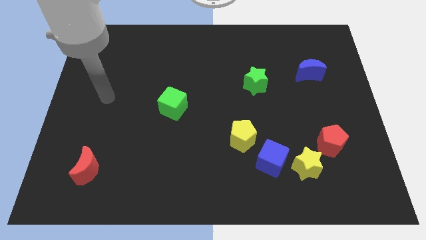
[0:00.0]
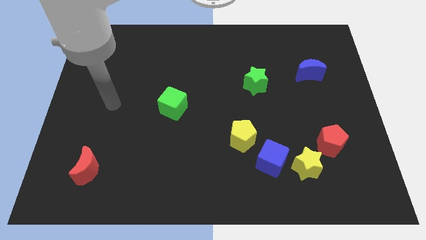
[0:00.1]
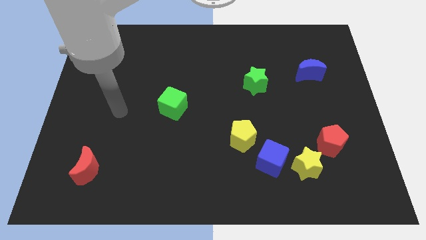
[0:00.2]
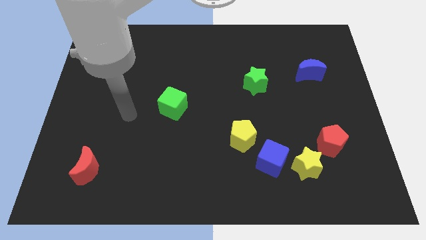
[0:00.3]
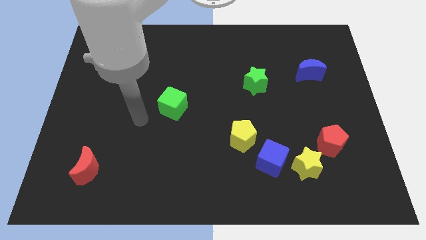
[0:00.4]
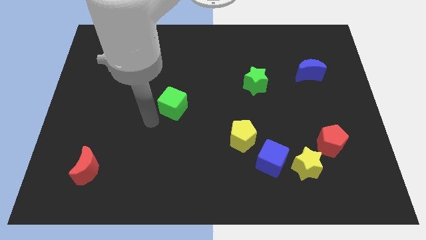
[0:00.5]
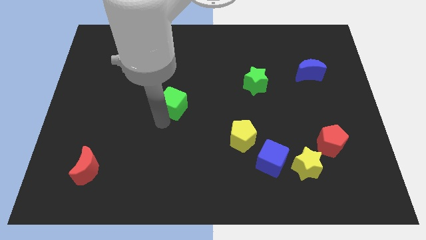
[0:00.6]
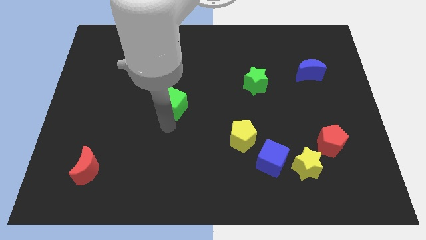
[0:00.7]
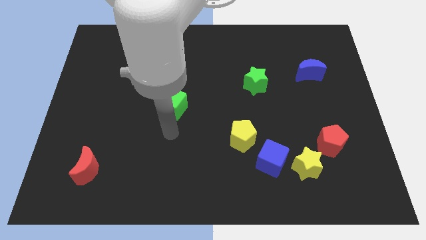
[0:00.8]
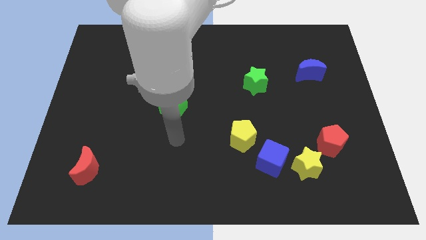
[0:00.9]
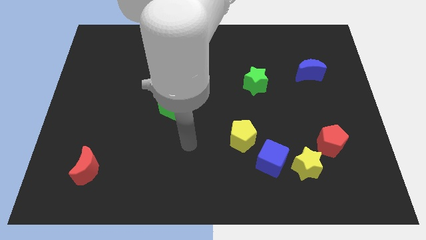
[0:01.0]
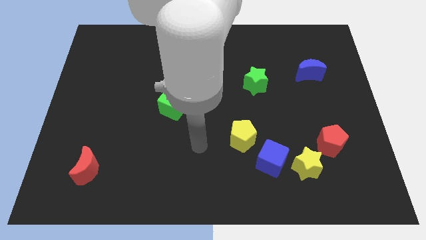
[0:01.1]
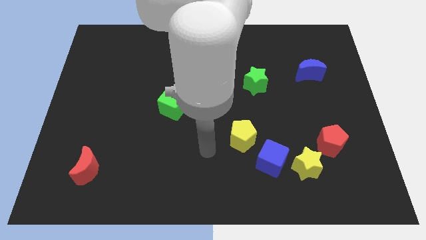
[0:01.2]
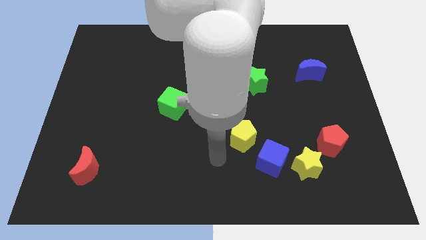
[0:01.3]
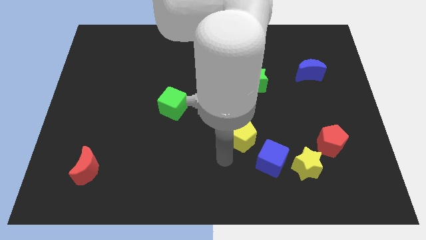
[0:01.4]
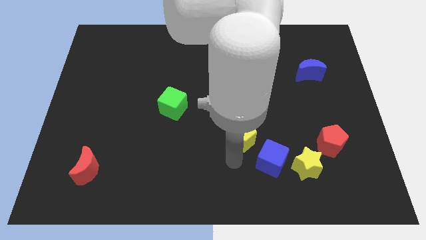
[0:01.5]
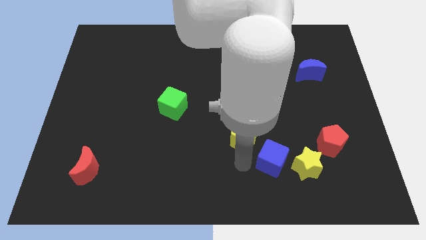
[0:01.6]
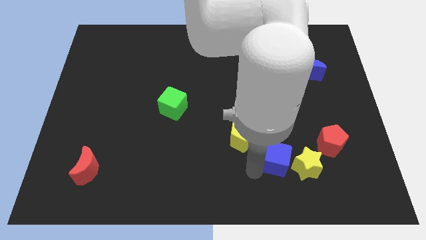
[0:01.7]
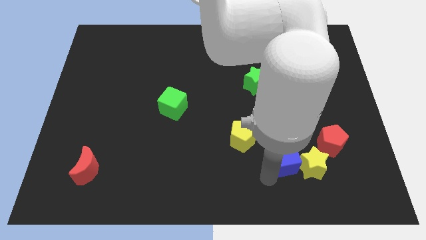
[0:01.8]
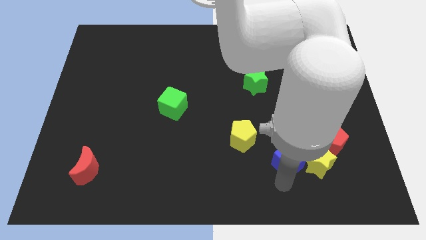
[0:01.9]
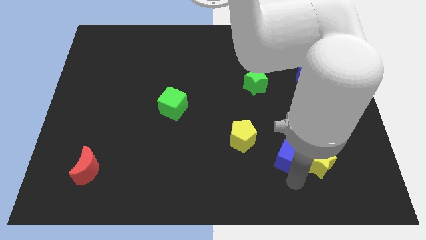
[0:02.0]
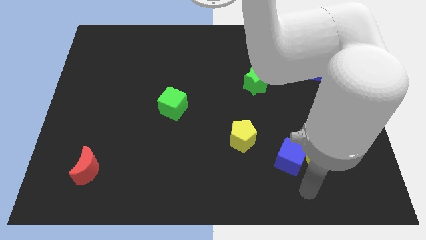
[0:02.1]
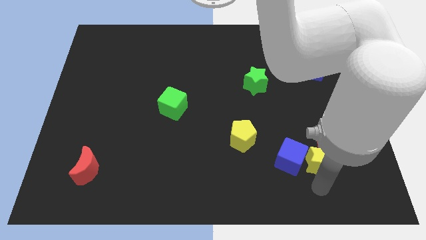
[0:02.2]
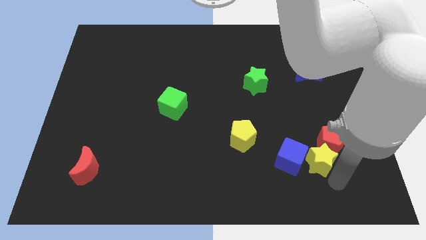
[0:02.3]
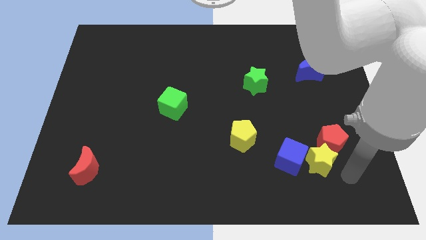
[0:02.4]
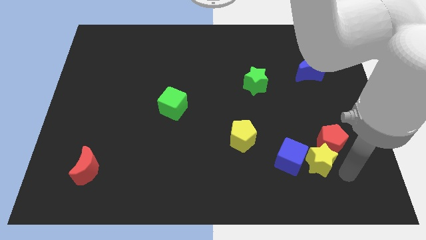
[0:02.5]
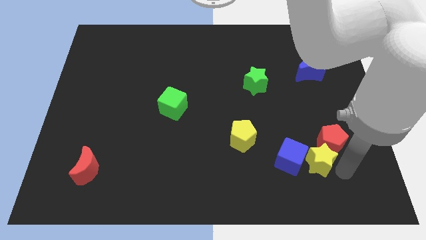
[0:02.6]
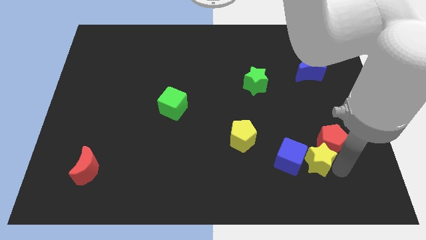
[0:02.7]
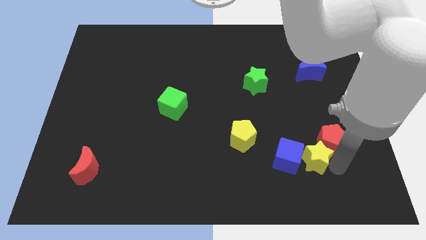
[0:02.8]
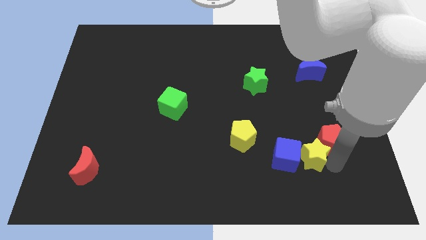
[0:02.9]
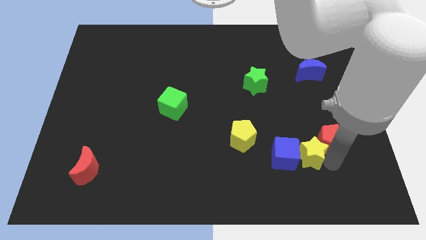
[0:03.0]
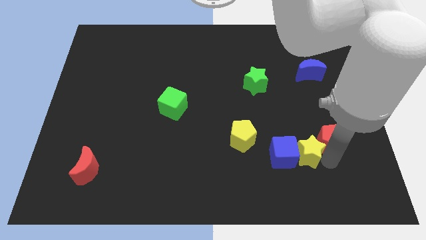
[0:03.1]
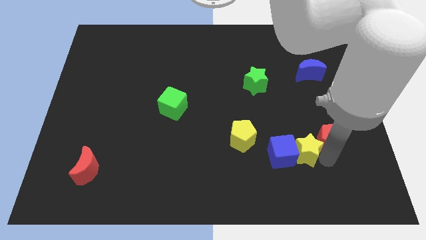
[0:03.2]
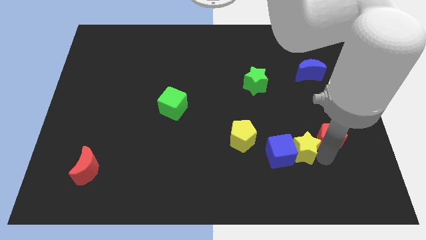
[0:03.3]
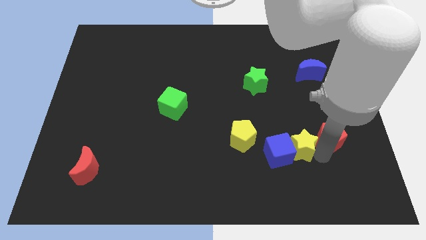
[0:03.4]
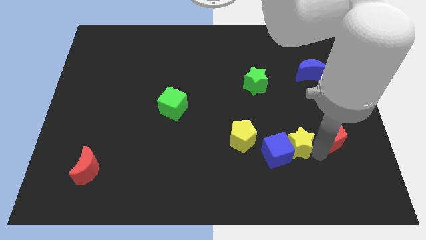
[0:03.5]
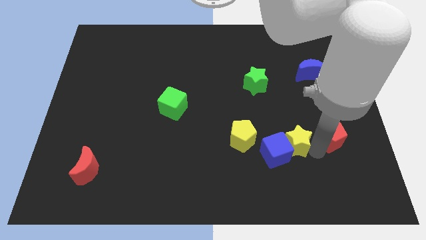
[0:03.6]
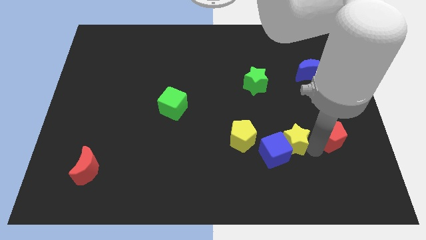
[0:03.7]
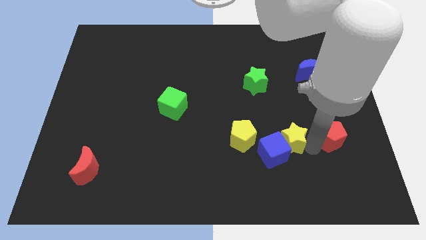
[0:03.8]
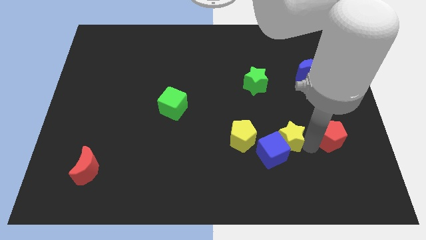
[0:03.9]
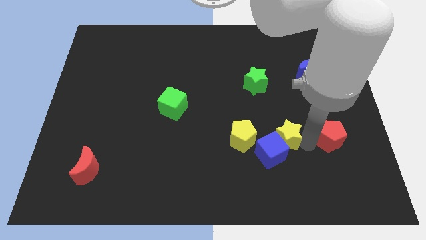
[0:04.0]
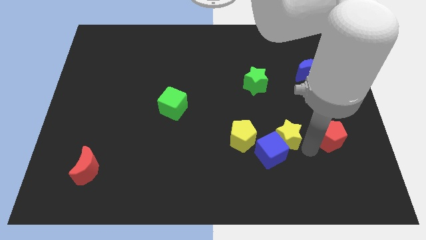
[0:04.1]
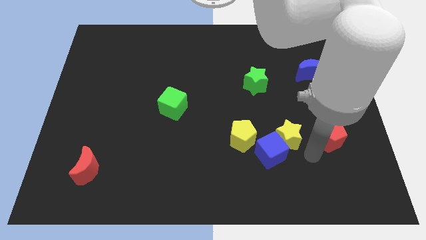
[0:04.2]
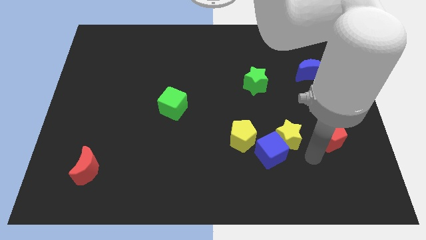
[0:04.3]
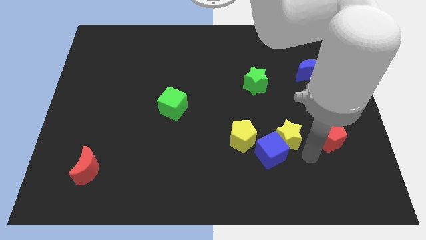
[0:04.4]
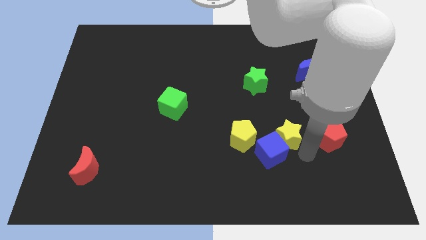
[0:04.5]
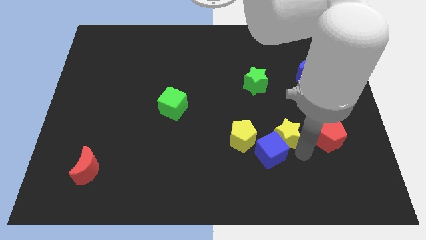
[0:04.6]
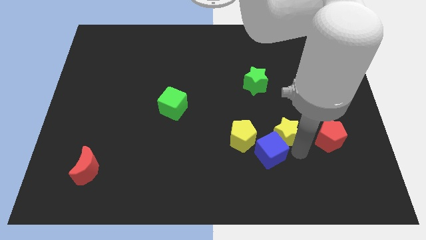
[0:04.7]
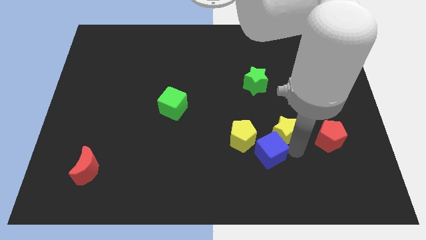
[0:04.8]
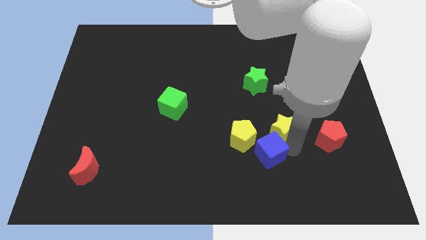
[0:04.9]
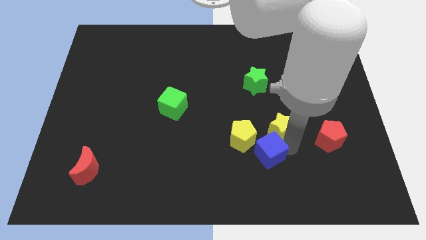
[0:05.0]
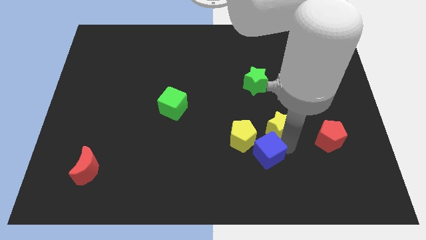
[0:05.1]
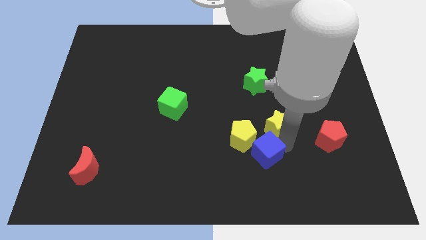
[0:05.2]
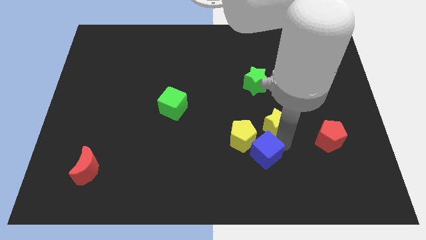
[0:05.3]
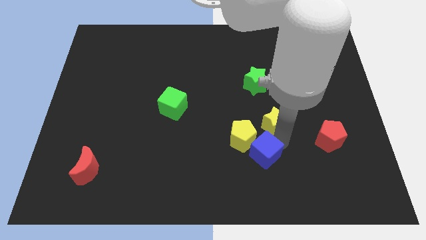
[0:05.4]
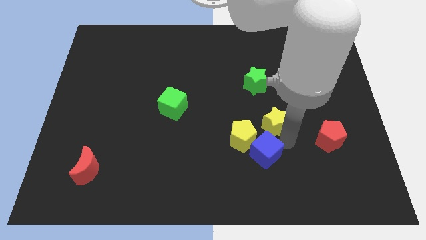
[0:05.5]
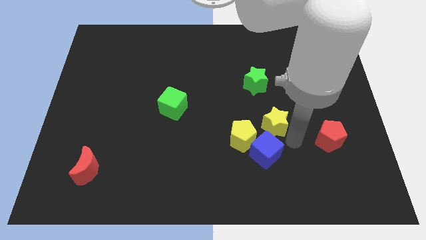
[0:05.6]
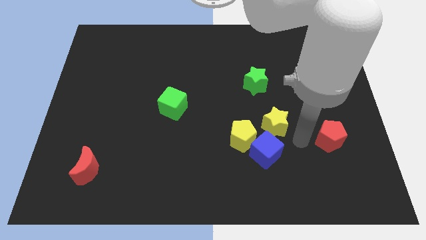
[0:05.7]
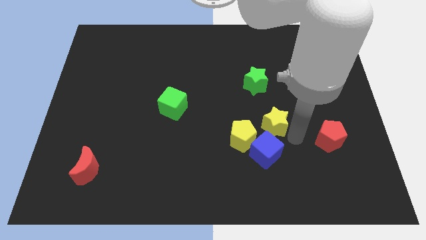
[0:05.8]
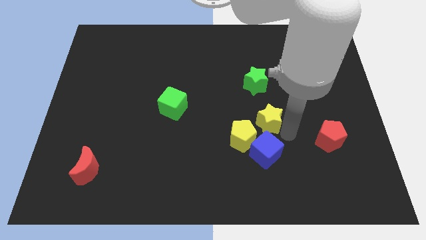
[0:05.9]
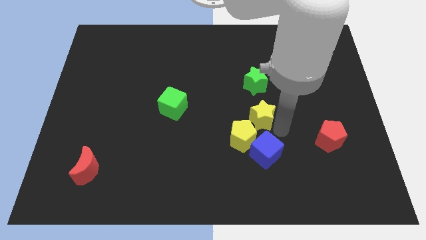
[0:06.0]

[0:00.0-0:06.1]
push the yellow star to the top of the yellow pentagon

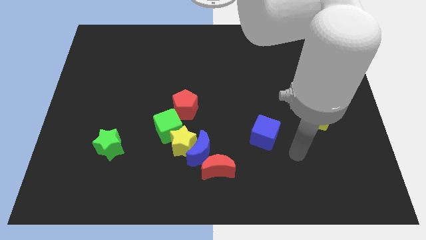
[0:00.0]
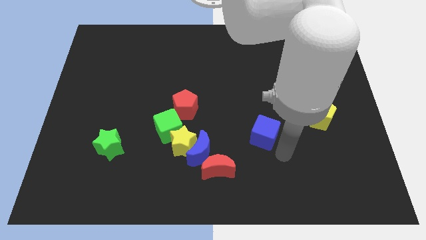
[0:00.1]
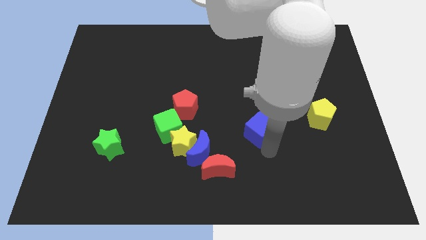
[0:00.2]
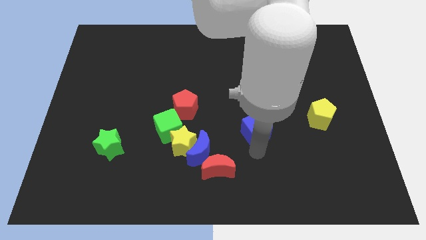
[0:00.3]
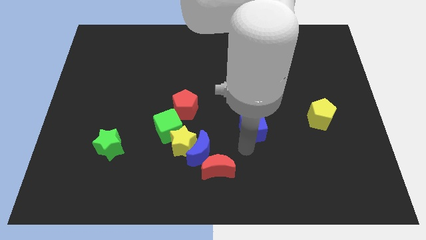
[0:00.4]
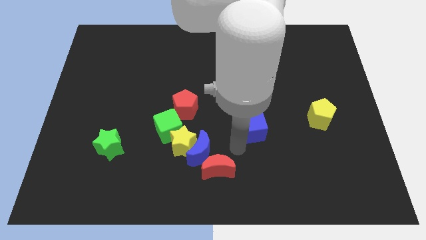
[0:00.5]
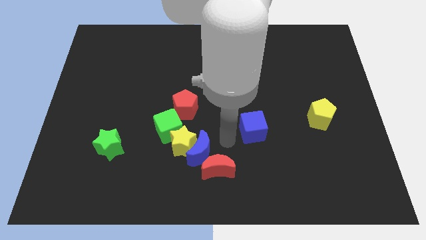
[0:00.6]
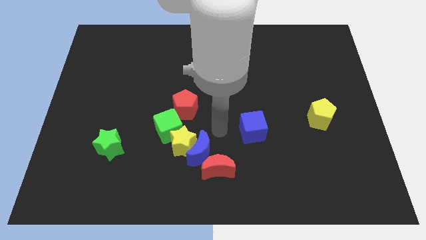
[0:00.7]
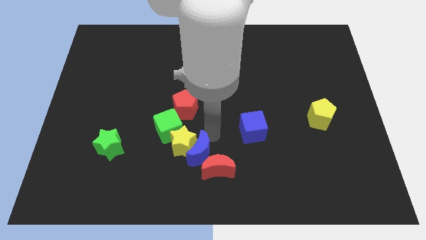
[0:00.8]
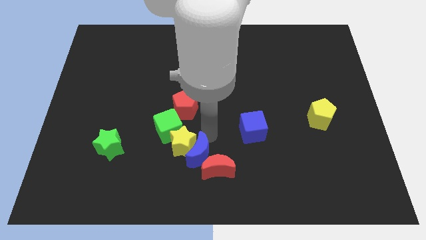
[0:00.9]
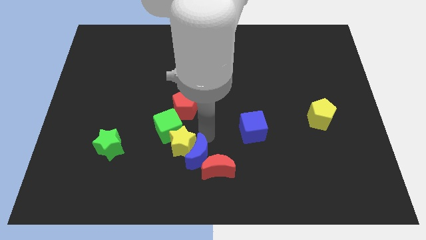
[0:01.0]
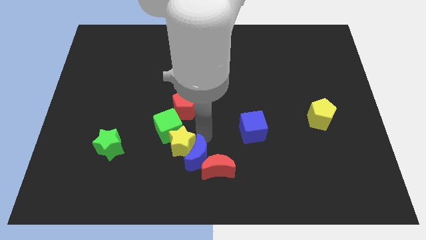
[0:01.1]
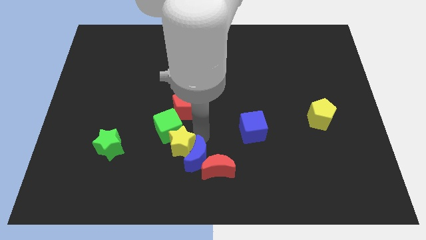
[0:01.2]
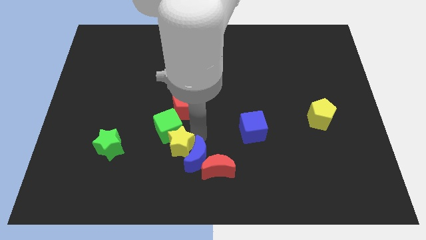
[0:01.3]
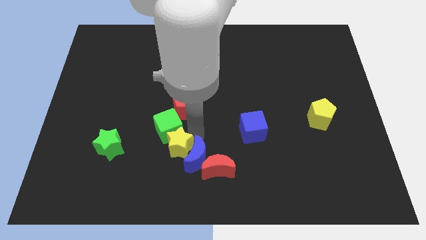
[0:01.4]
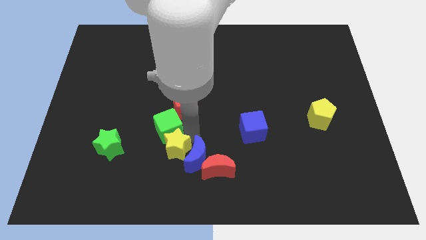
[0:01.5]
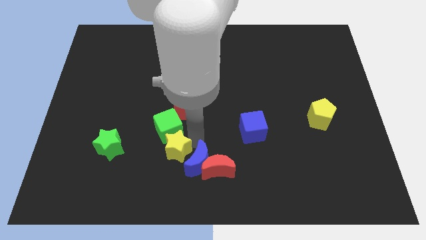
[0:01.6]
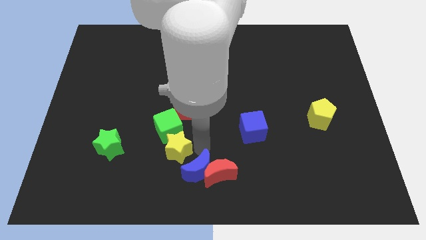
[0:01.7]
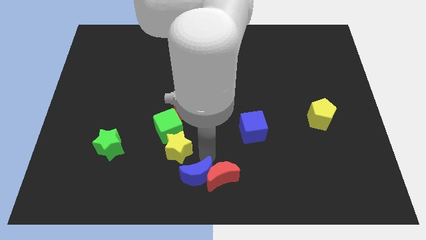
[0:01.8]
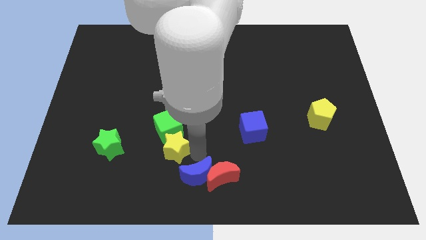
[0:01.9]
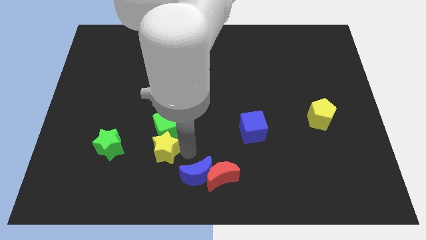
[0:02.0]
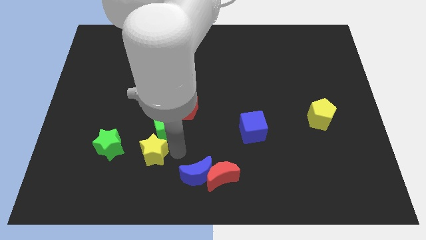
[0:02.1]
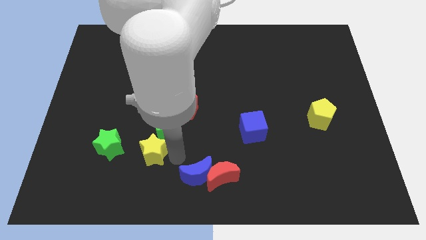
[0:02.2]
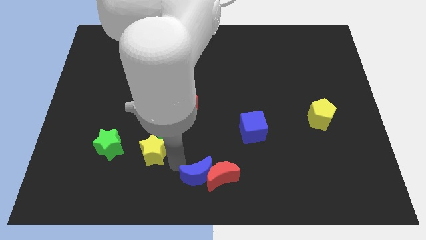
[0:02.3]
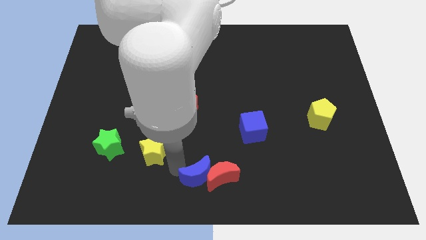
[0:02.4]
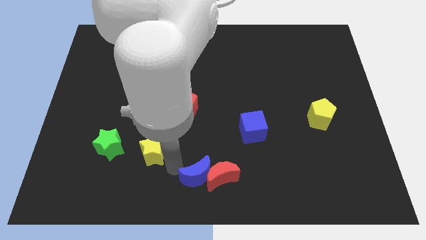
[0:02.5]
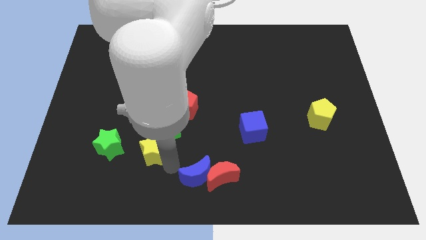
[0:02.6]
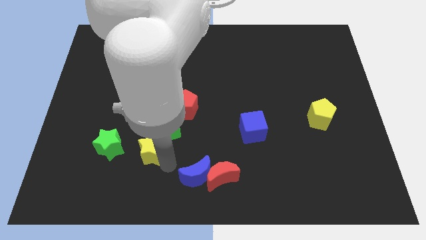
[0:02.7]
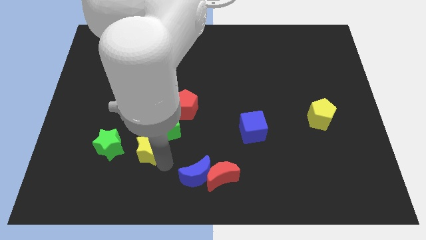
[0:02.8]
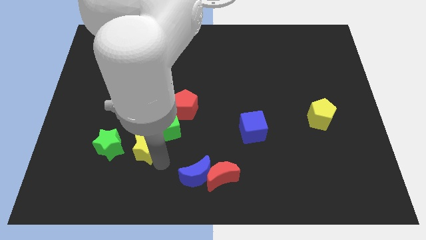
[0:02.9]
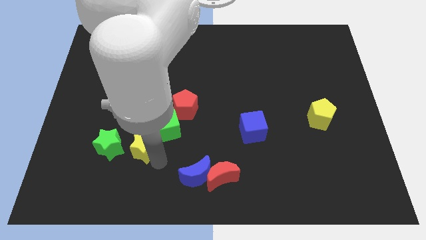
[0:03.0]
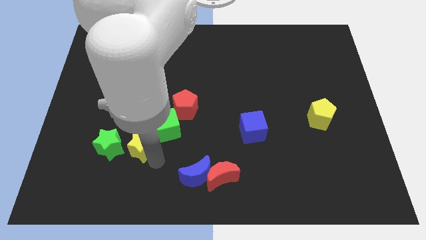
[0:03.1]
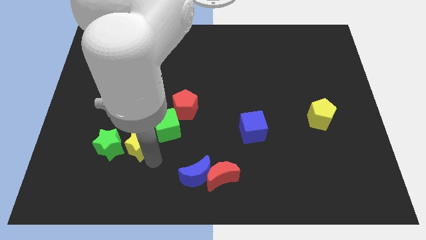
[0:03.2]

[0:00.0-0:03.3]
move the yellow star to the left side of the green cube
